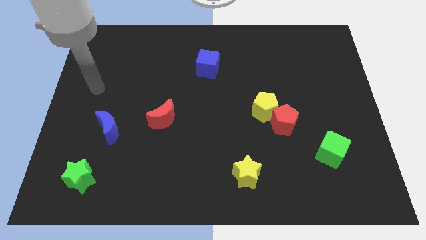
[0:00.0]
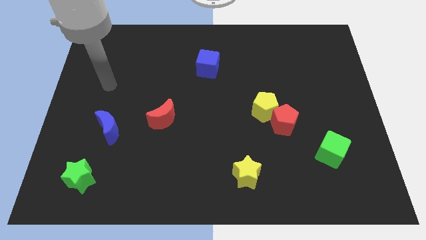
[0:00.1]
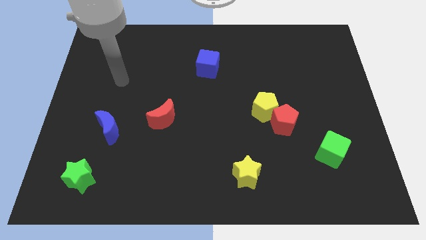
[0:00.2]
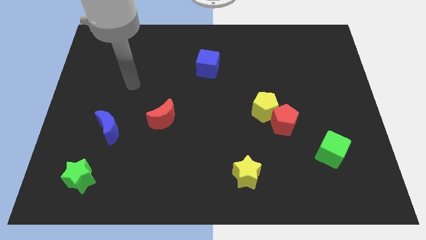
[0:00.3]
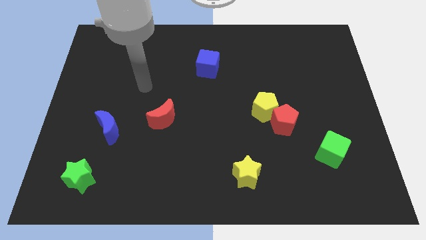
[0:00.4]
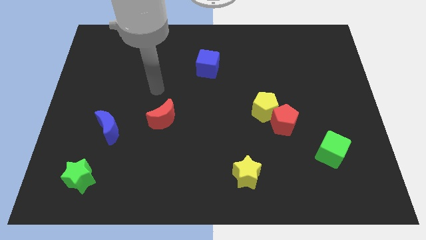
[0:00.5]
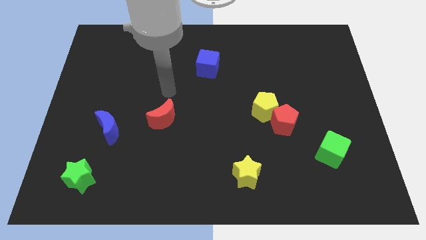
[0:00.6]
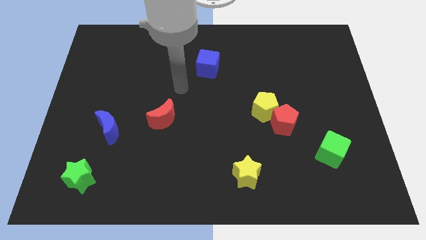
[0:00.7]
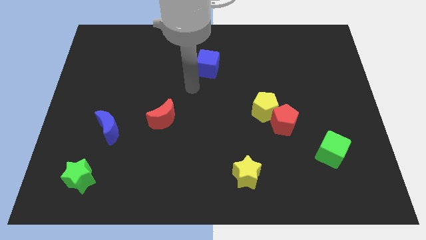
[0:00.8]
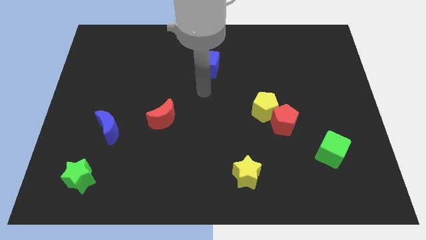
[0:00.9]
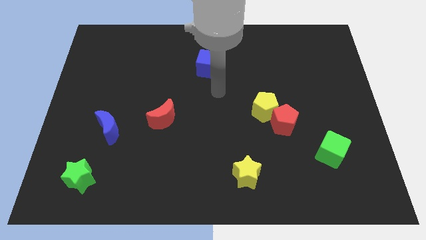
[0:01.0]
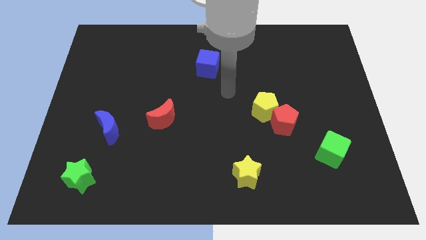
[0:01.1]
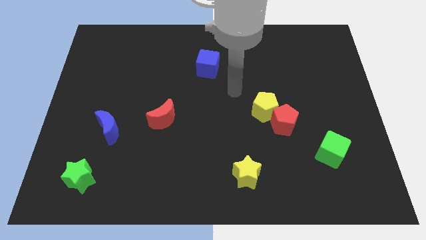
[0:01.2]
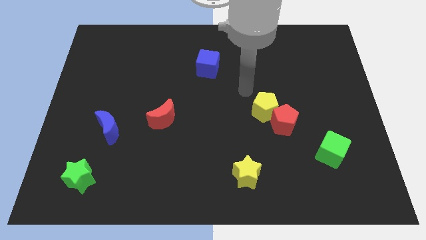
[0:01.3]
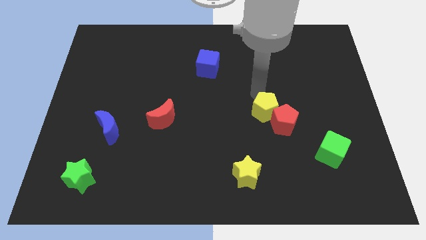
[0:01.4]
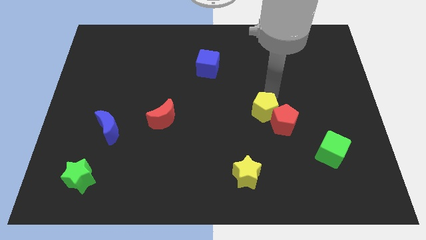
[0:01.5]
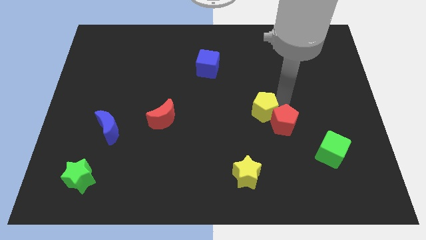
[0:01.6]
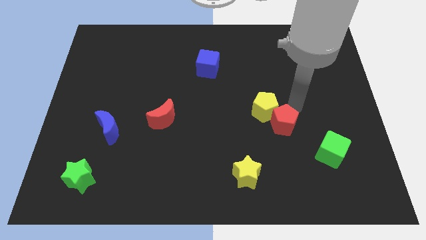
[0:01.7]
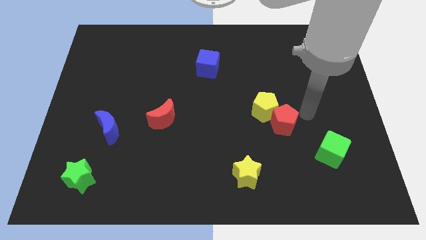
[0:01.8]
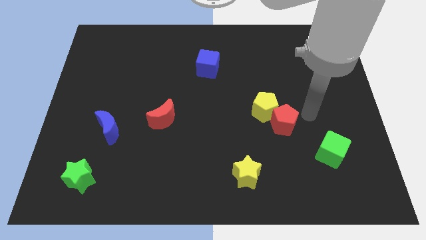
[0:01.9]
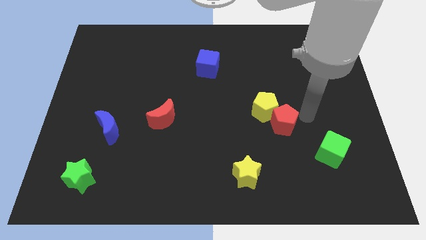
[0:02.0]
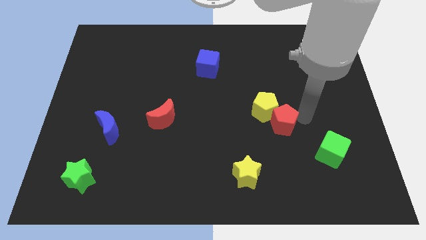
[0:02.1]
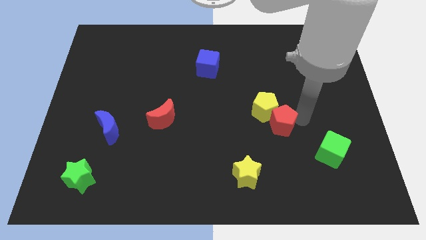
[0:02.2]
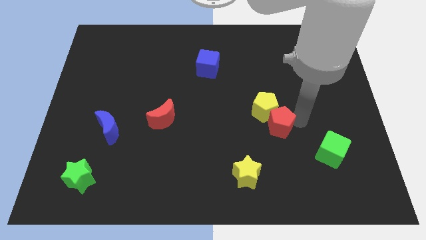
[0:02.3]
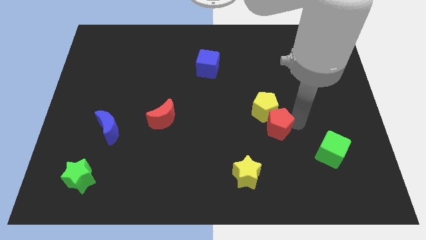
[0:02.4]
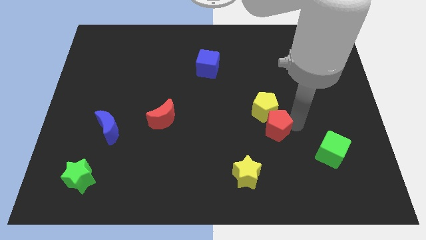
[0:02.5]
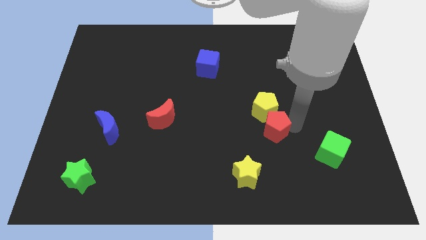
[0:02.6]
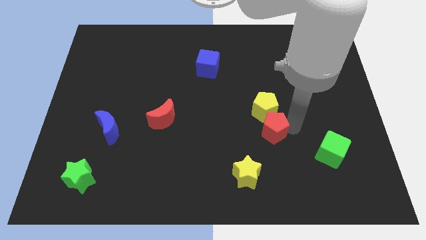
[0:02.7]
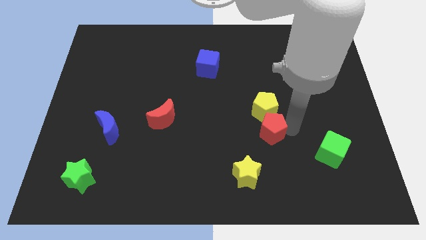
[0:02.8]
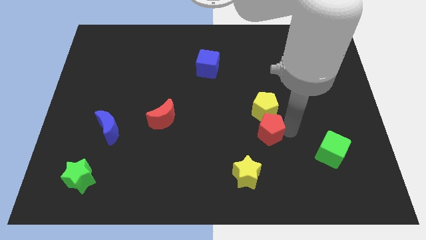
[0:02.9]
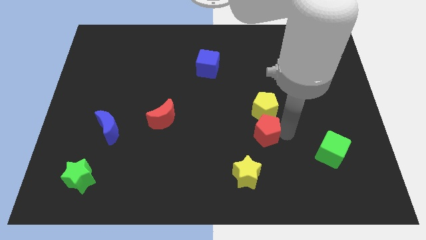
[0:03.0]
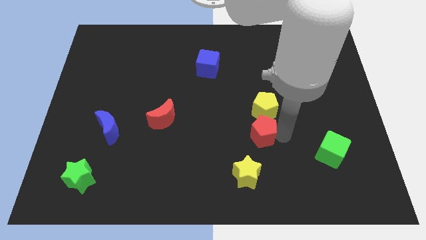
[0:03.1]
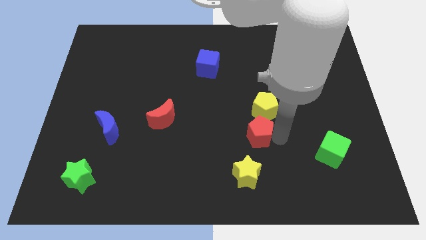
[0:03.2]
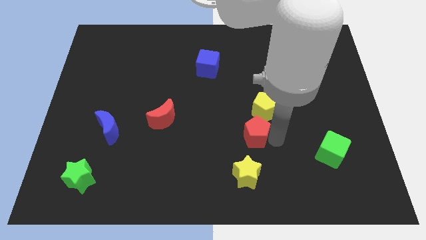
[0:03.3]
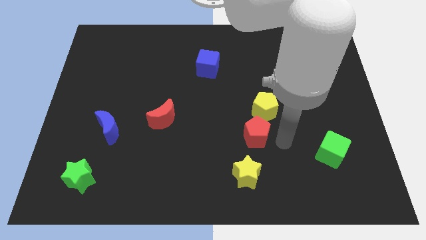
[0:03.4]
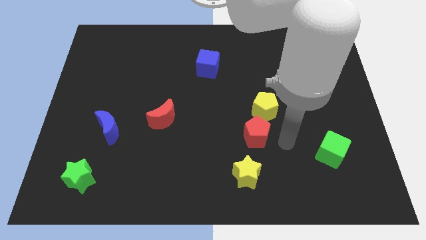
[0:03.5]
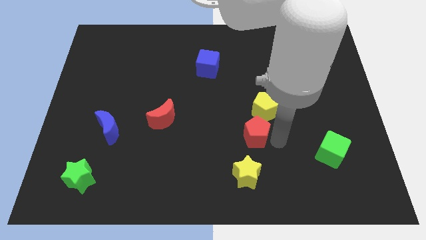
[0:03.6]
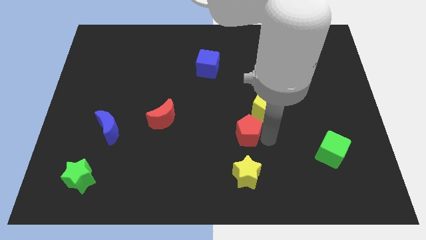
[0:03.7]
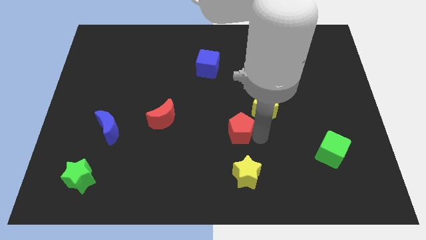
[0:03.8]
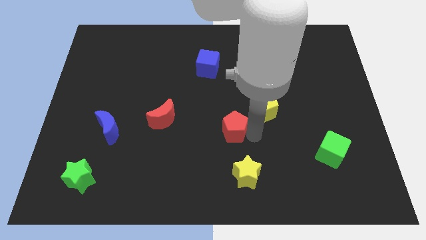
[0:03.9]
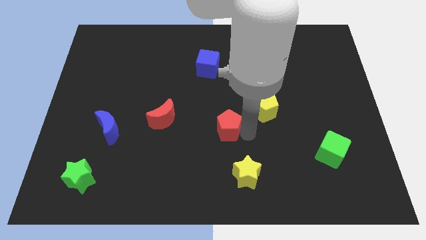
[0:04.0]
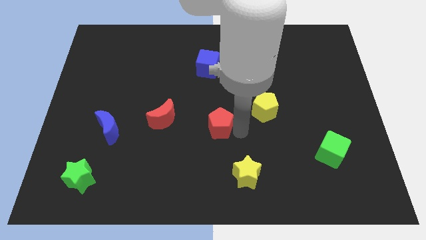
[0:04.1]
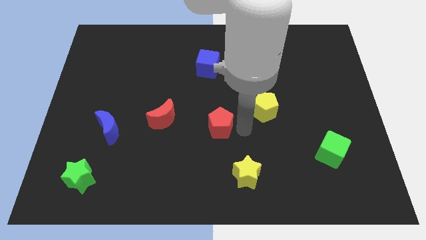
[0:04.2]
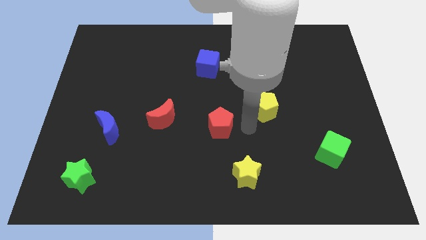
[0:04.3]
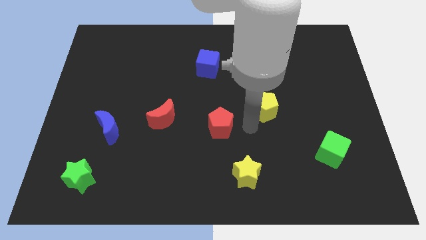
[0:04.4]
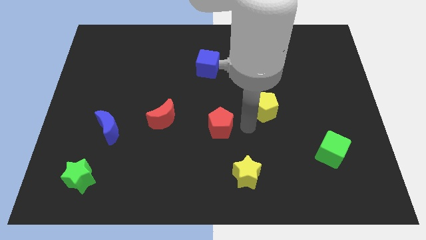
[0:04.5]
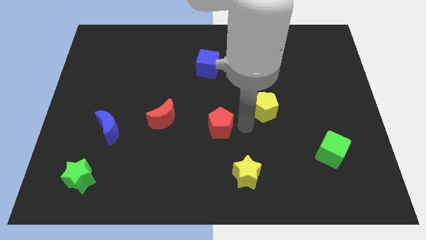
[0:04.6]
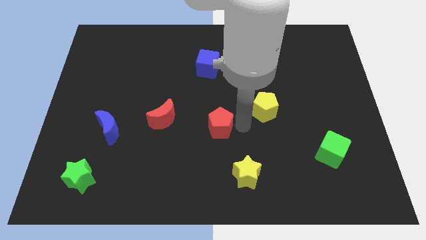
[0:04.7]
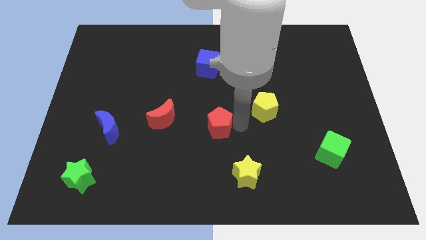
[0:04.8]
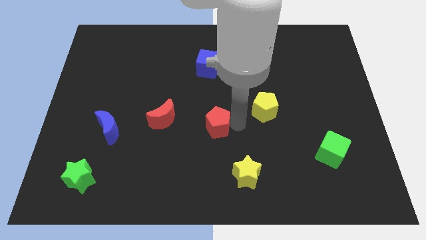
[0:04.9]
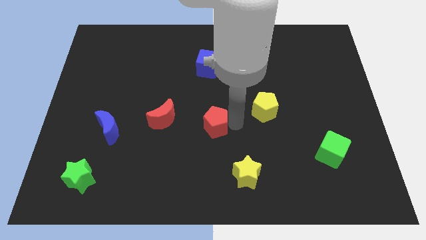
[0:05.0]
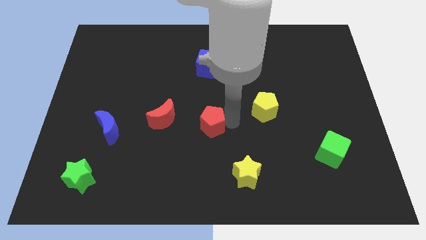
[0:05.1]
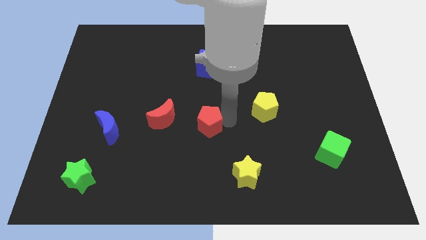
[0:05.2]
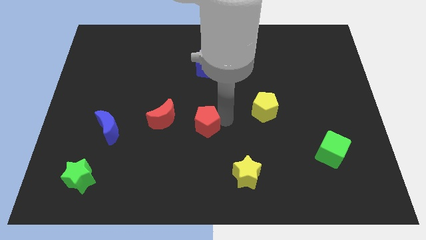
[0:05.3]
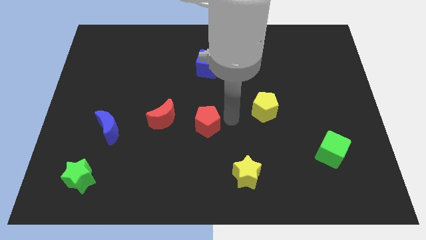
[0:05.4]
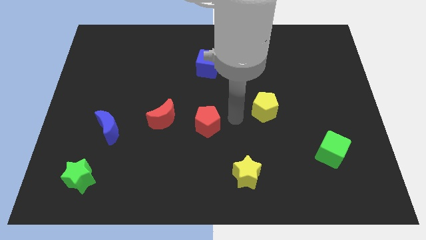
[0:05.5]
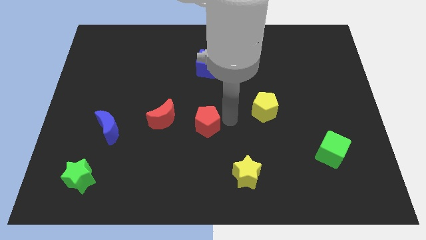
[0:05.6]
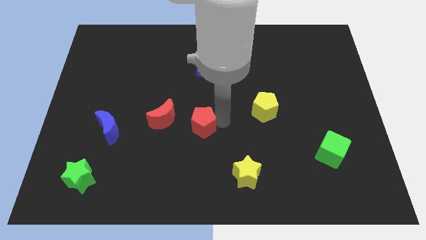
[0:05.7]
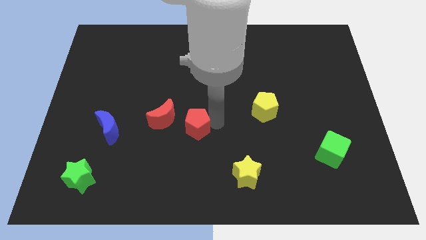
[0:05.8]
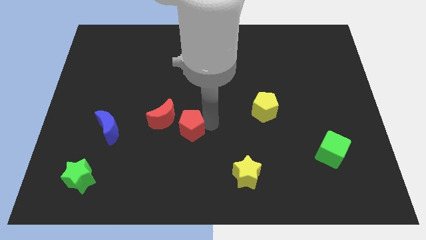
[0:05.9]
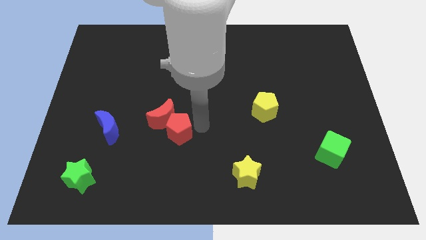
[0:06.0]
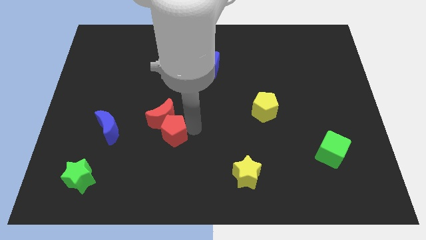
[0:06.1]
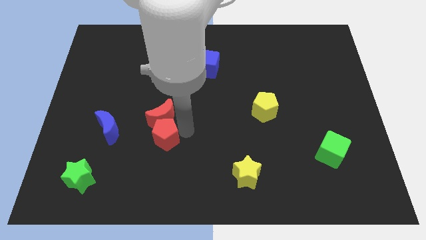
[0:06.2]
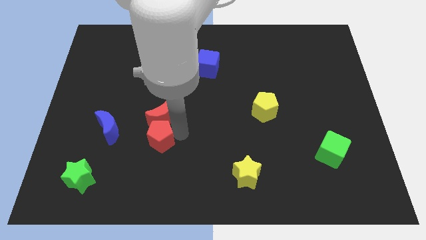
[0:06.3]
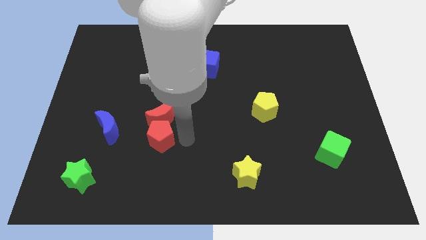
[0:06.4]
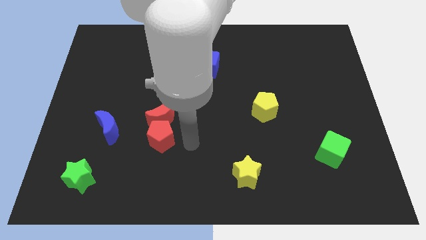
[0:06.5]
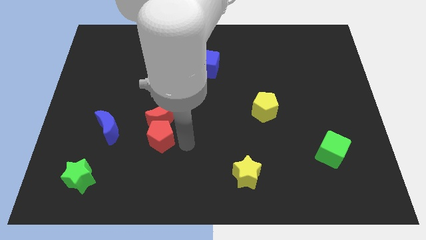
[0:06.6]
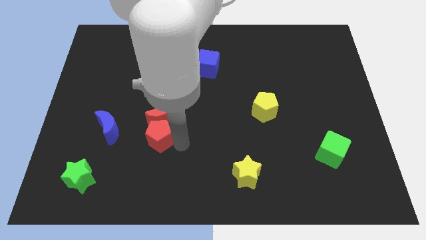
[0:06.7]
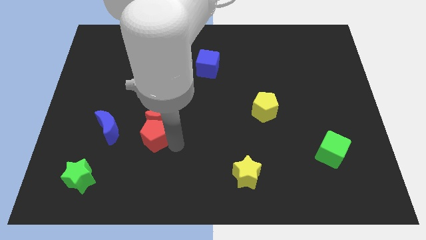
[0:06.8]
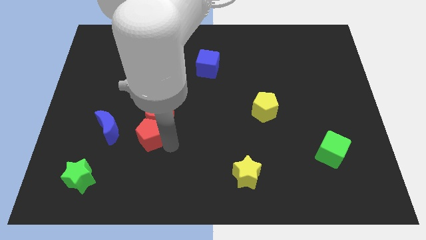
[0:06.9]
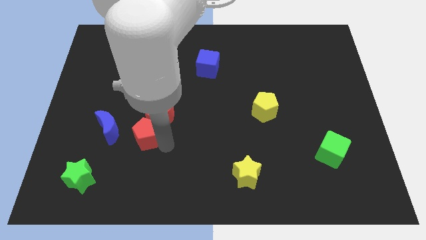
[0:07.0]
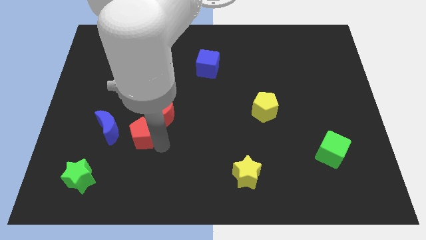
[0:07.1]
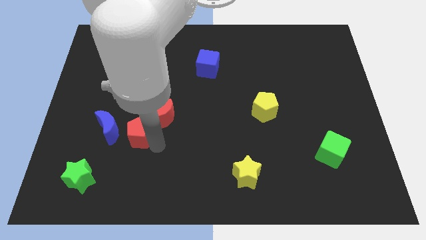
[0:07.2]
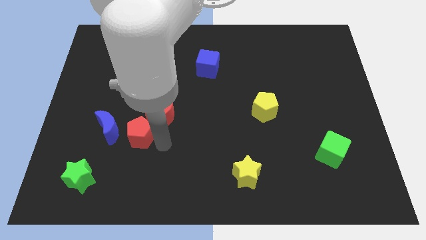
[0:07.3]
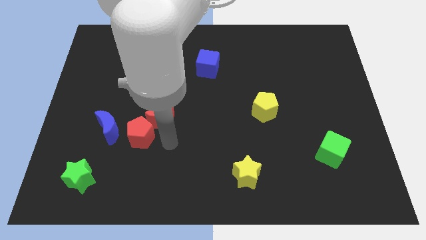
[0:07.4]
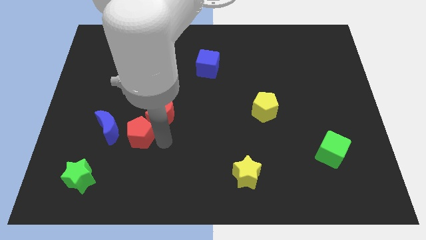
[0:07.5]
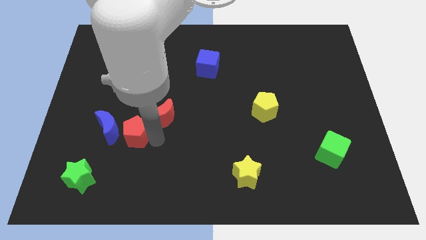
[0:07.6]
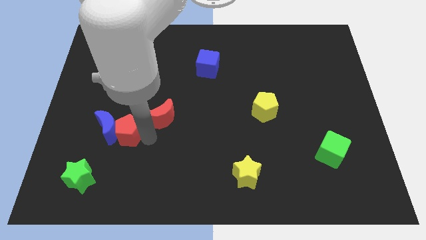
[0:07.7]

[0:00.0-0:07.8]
put the red pentagon close to the blue moon
